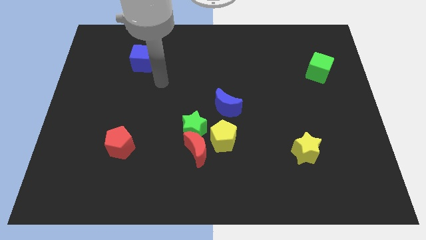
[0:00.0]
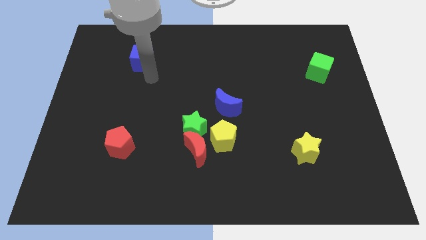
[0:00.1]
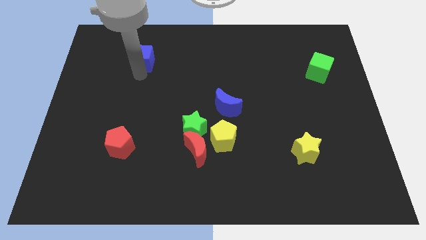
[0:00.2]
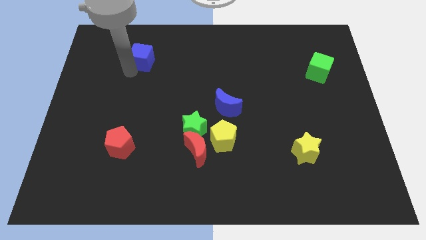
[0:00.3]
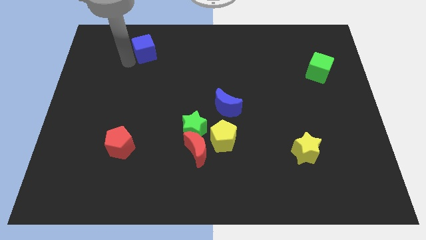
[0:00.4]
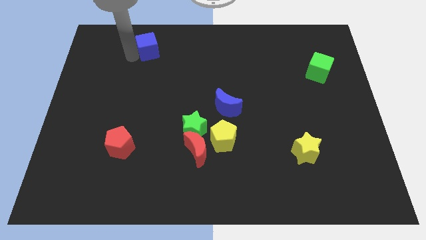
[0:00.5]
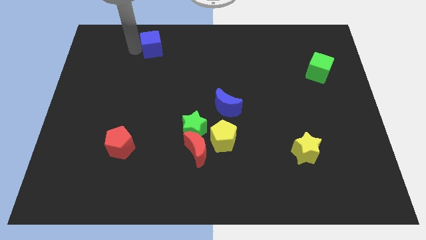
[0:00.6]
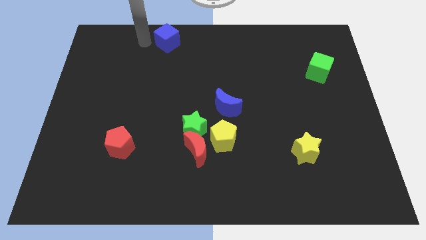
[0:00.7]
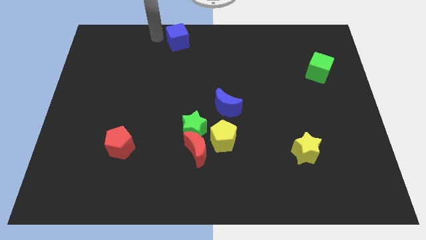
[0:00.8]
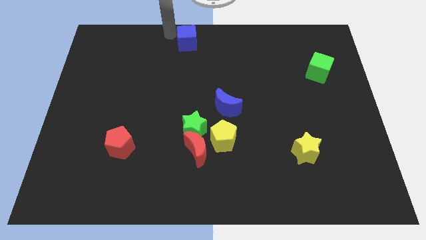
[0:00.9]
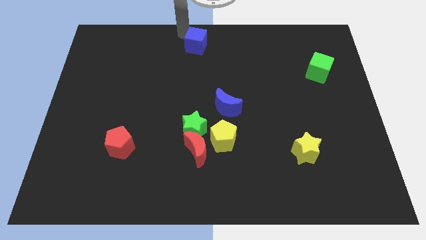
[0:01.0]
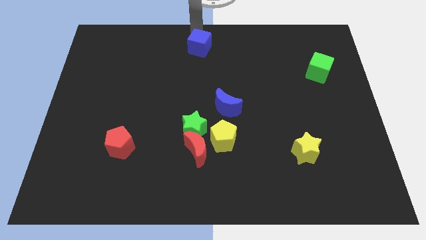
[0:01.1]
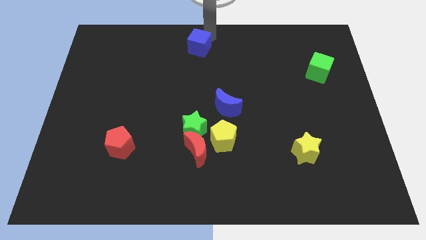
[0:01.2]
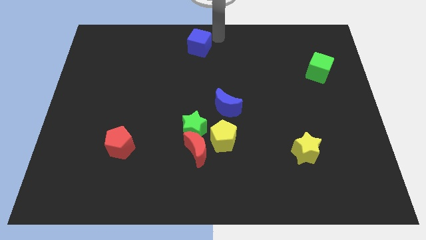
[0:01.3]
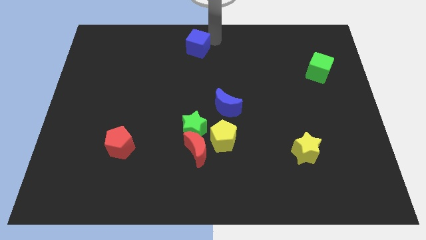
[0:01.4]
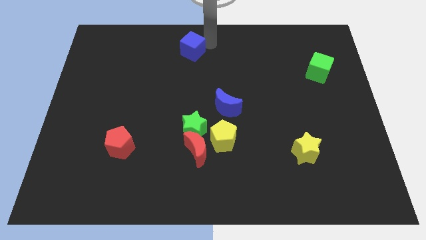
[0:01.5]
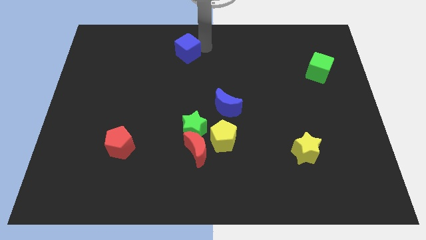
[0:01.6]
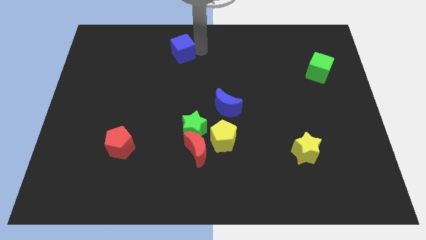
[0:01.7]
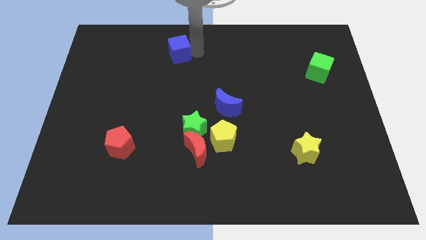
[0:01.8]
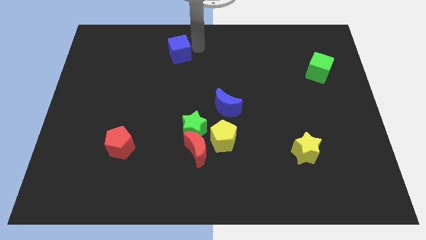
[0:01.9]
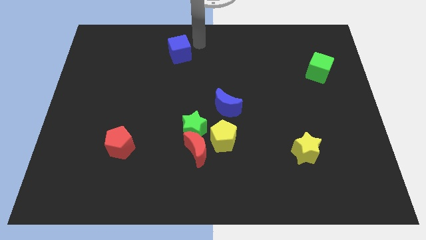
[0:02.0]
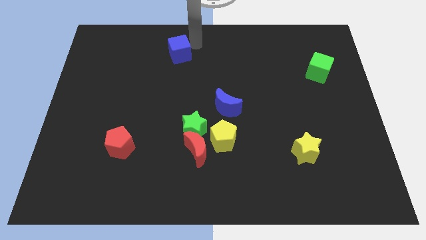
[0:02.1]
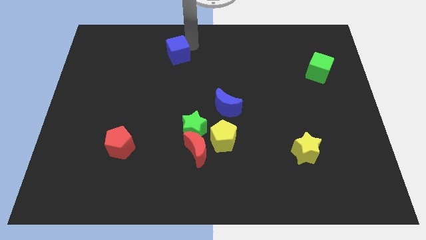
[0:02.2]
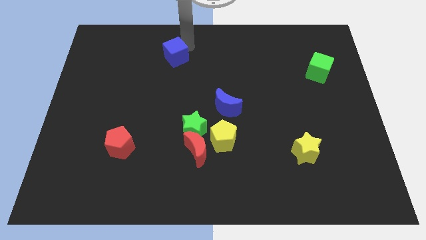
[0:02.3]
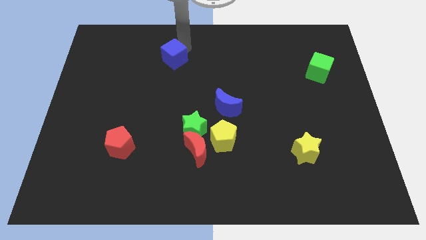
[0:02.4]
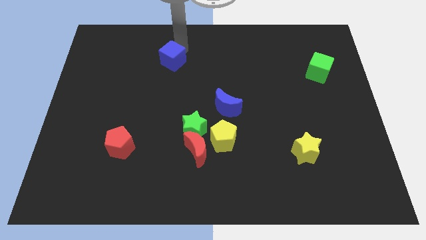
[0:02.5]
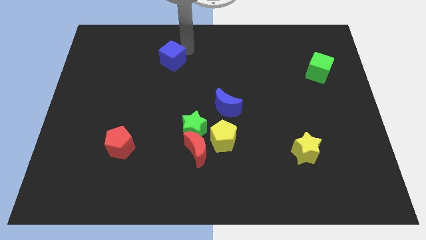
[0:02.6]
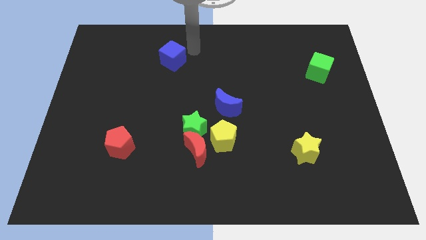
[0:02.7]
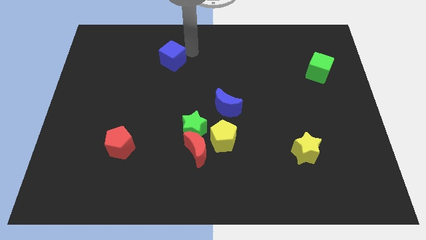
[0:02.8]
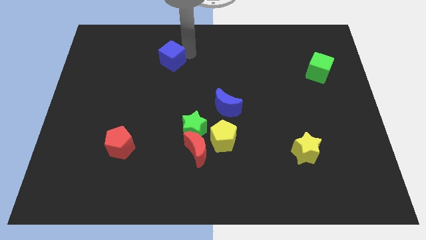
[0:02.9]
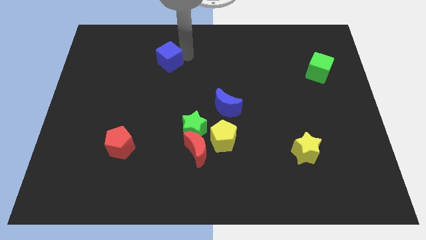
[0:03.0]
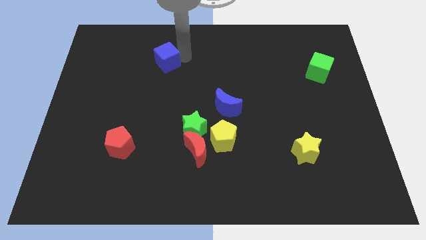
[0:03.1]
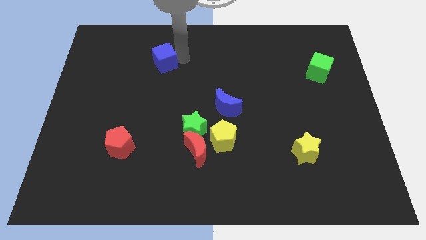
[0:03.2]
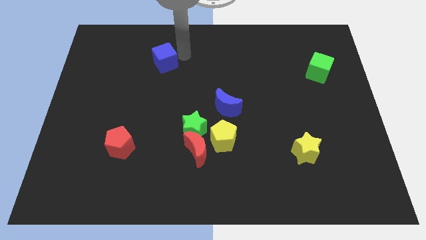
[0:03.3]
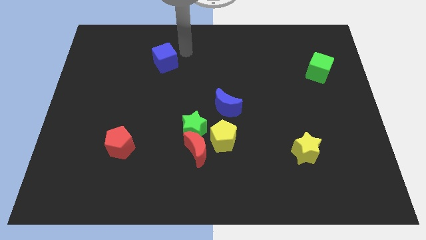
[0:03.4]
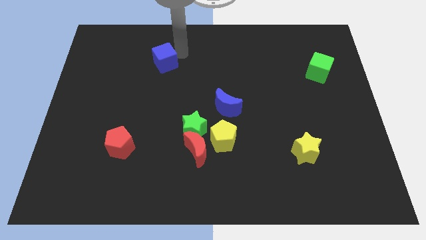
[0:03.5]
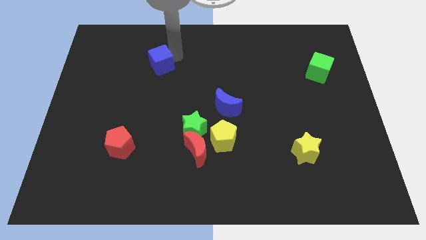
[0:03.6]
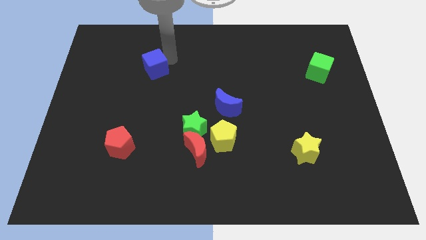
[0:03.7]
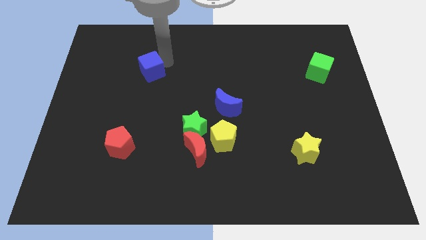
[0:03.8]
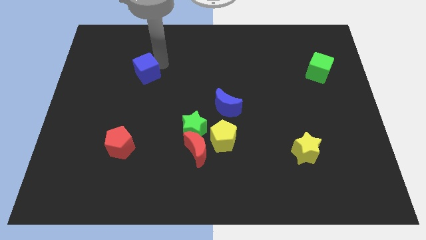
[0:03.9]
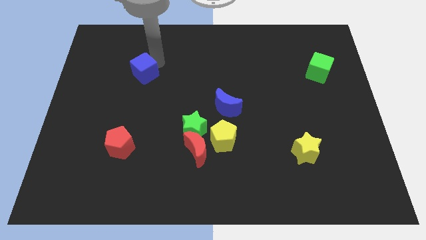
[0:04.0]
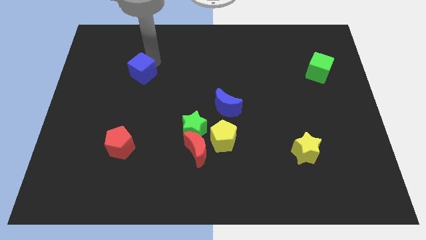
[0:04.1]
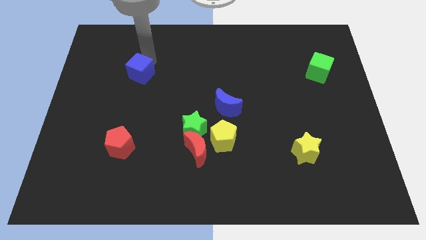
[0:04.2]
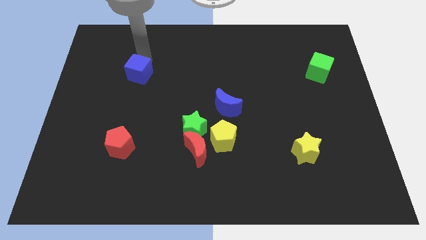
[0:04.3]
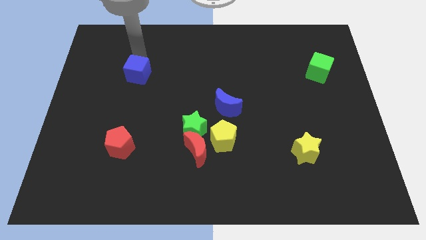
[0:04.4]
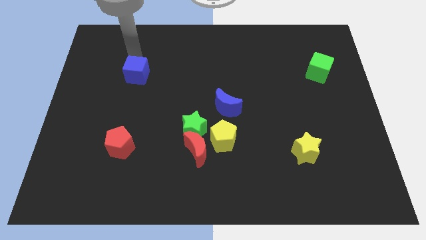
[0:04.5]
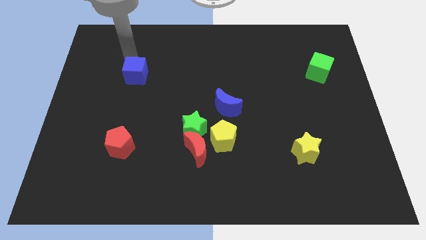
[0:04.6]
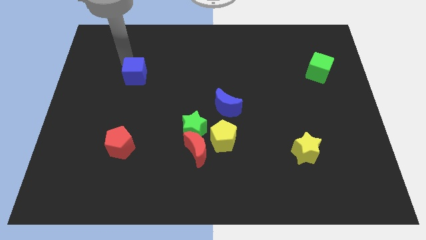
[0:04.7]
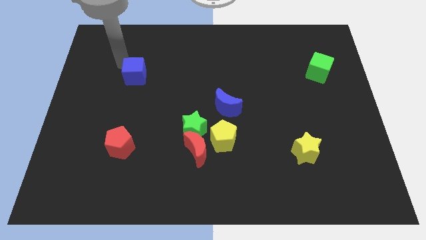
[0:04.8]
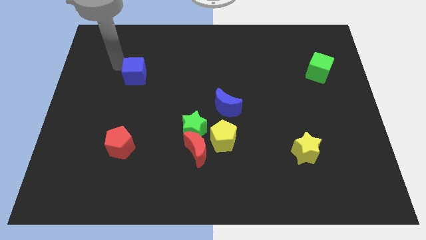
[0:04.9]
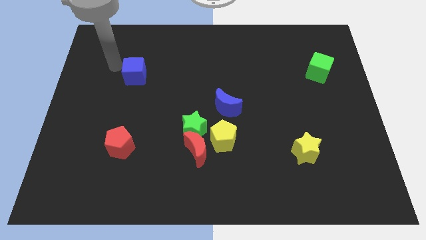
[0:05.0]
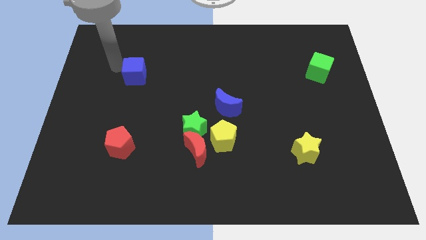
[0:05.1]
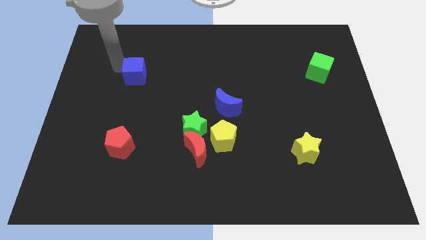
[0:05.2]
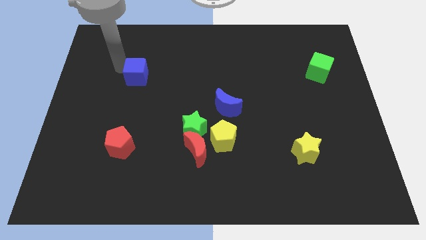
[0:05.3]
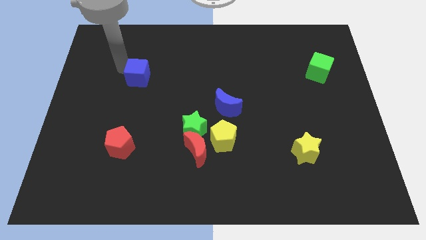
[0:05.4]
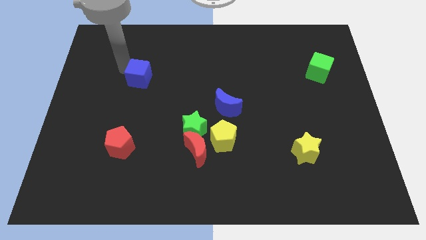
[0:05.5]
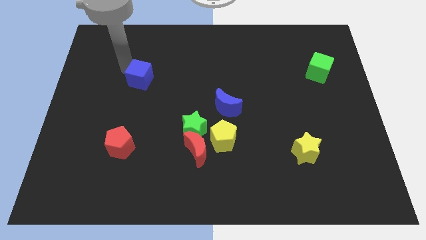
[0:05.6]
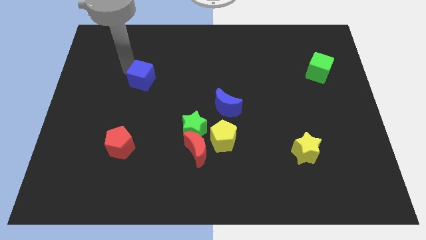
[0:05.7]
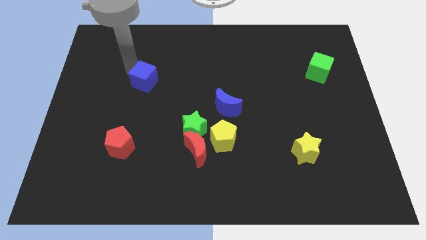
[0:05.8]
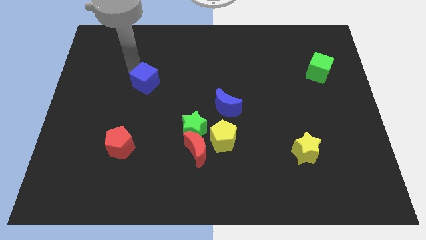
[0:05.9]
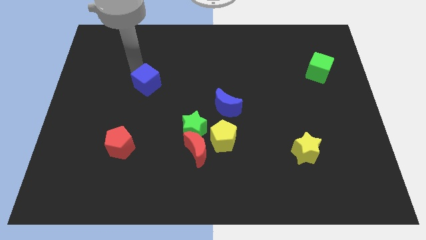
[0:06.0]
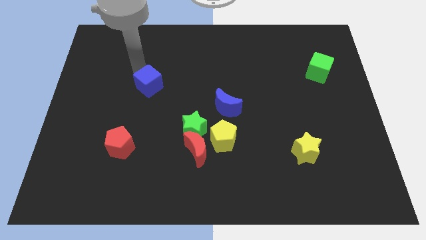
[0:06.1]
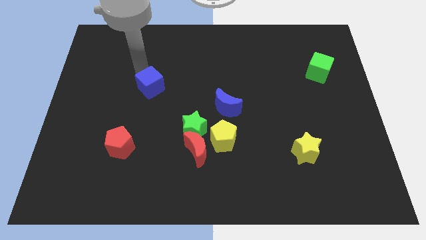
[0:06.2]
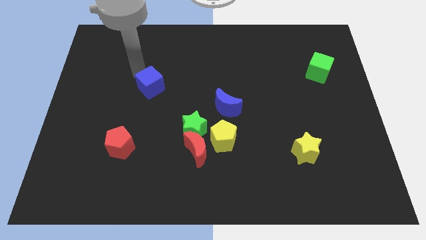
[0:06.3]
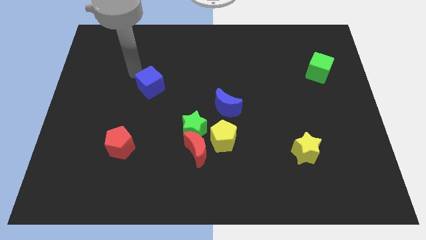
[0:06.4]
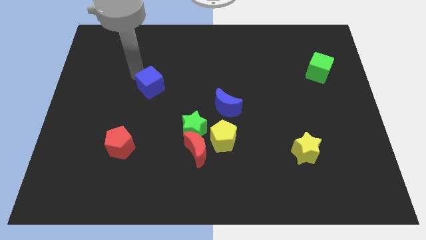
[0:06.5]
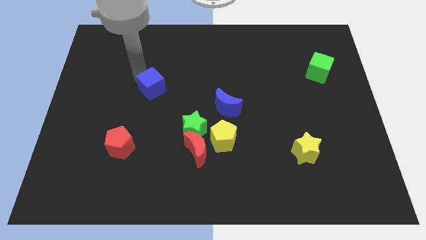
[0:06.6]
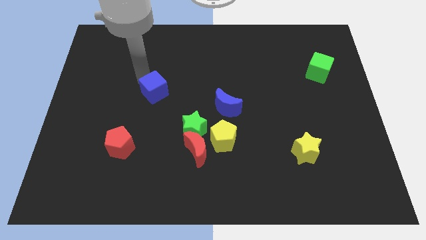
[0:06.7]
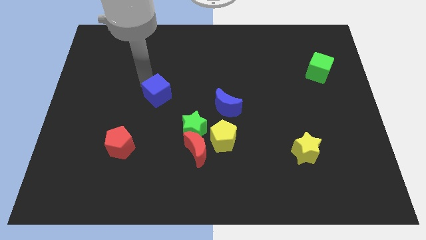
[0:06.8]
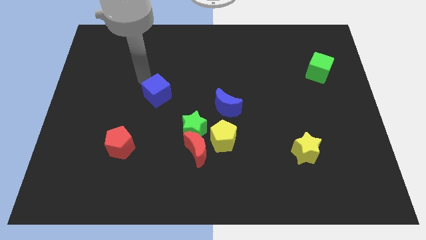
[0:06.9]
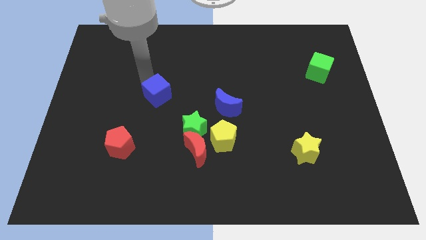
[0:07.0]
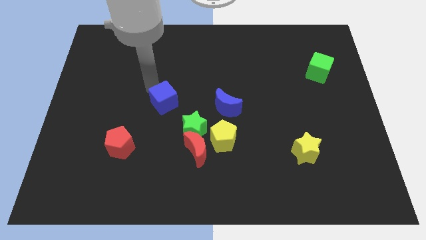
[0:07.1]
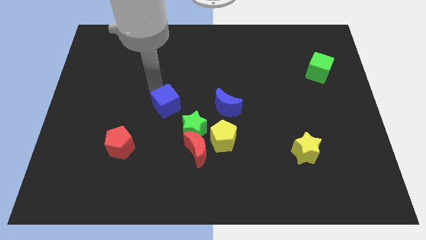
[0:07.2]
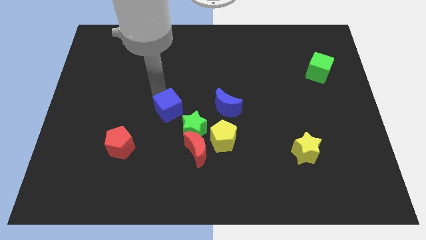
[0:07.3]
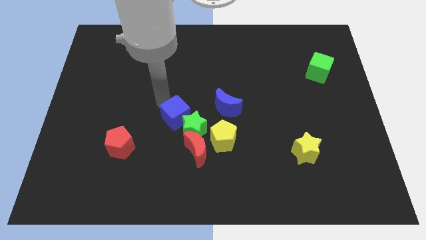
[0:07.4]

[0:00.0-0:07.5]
move the blue cube towards the green star
